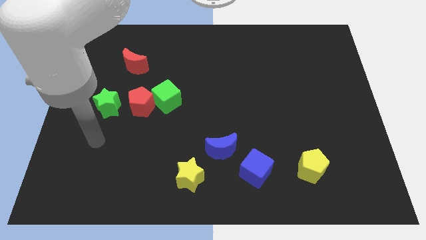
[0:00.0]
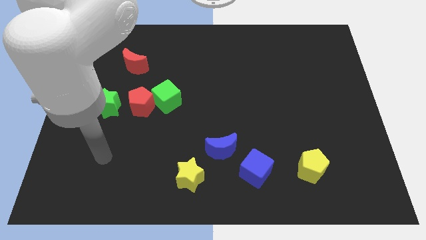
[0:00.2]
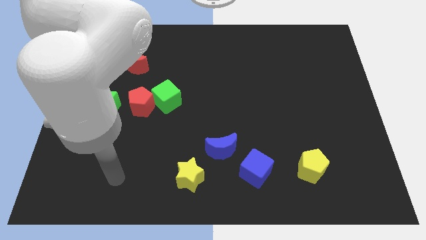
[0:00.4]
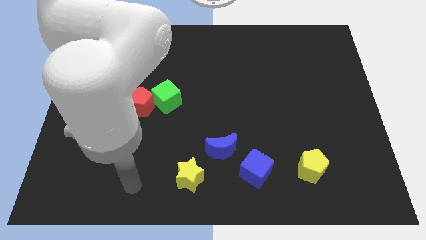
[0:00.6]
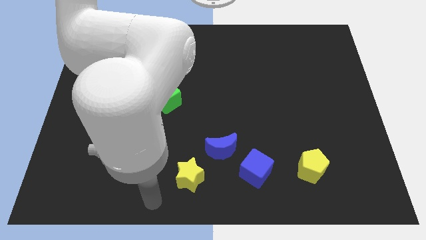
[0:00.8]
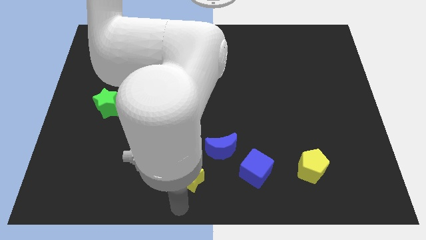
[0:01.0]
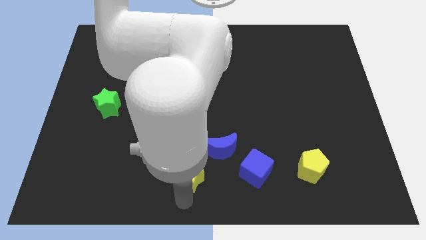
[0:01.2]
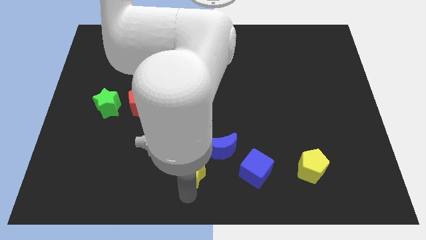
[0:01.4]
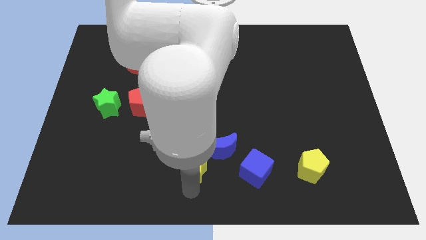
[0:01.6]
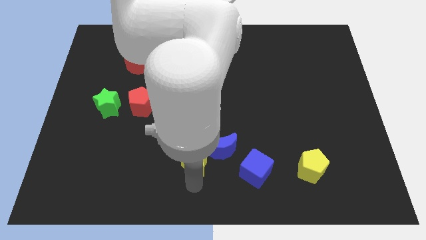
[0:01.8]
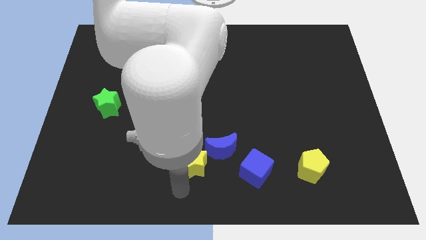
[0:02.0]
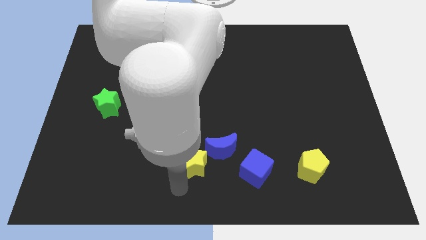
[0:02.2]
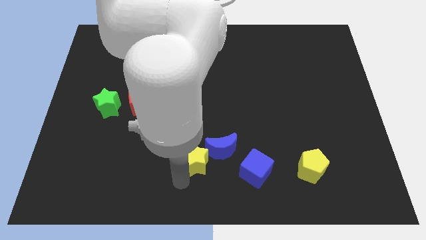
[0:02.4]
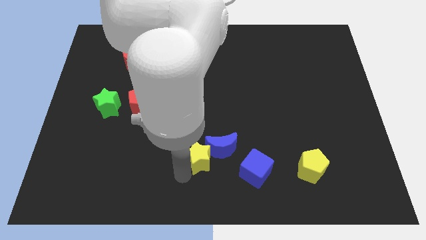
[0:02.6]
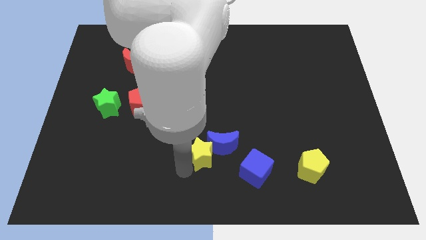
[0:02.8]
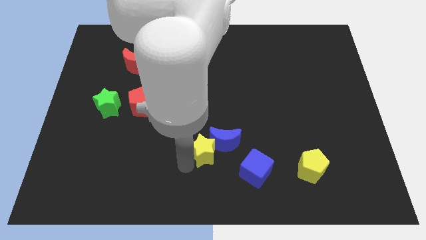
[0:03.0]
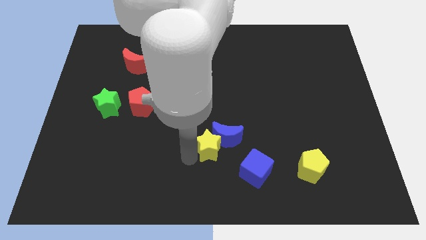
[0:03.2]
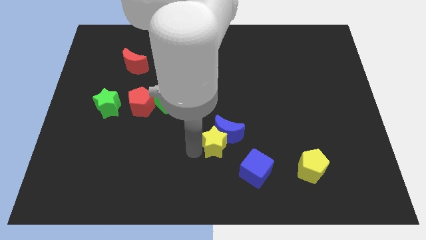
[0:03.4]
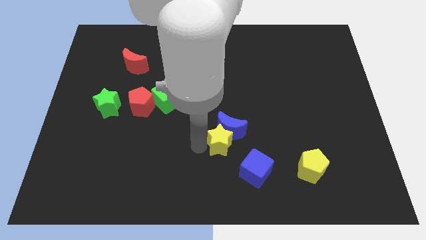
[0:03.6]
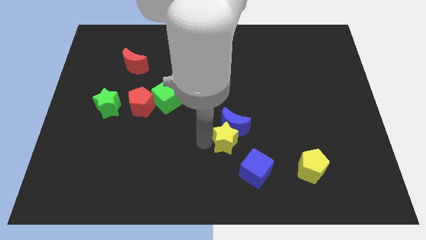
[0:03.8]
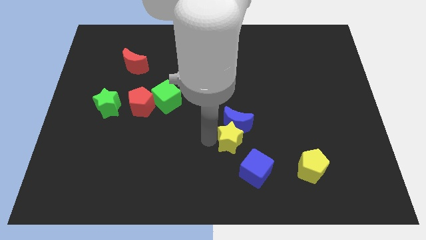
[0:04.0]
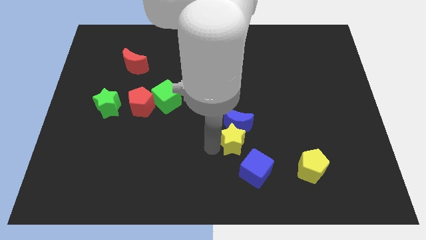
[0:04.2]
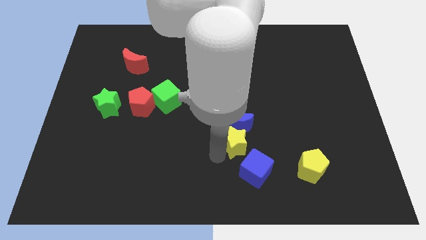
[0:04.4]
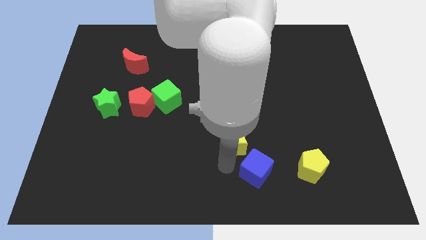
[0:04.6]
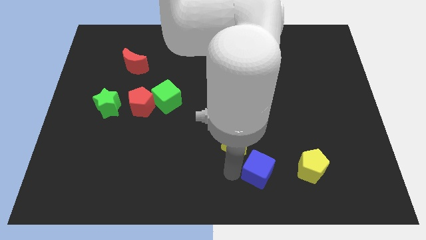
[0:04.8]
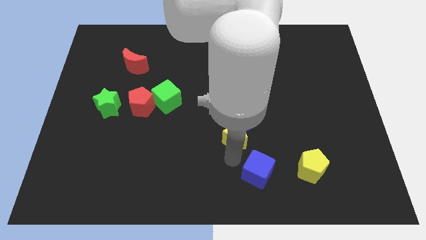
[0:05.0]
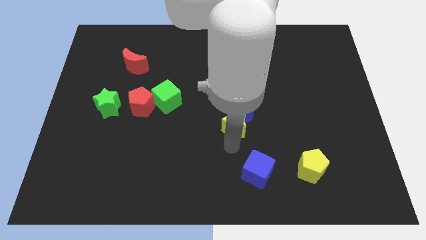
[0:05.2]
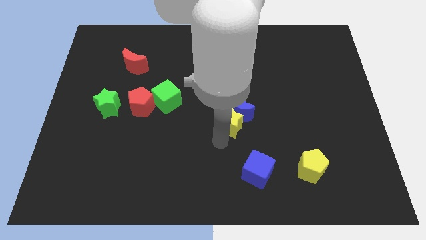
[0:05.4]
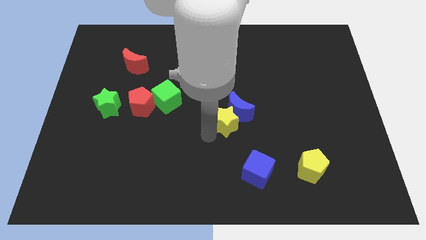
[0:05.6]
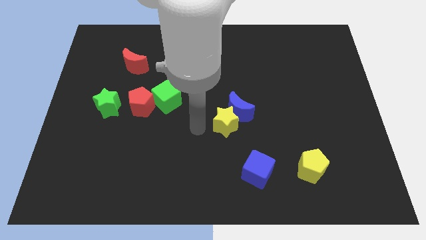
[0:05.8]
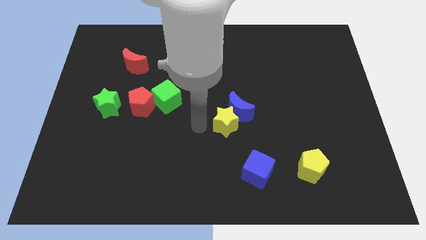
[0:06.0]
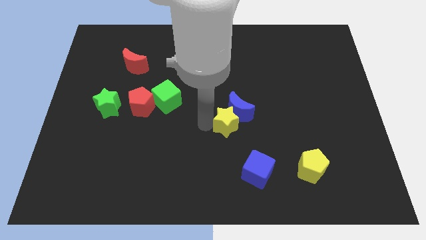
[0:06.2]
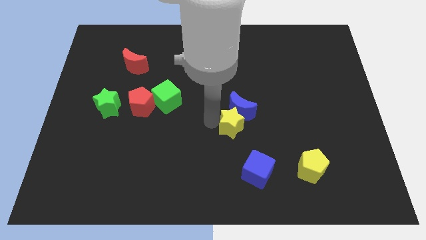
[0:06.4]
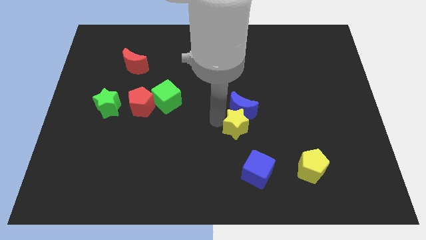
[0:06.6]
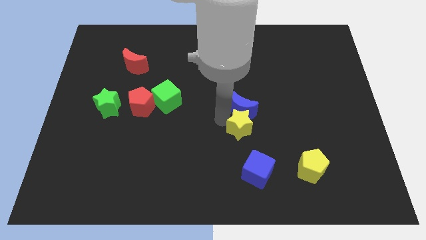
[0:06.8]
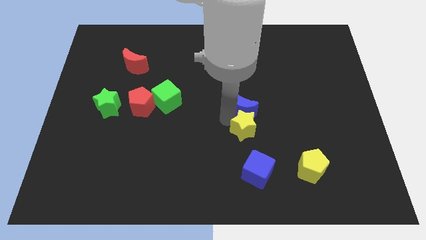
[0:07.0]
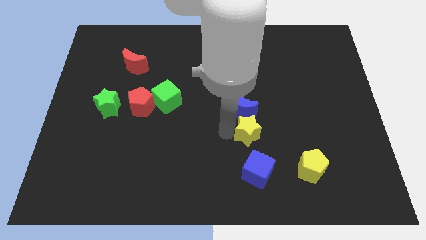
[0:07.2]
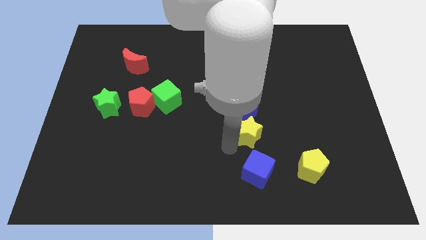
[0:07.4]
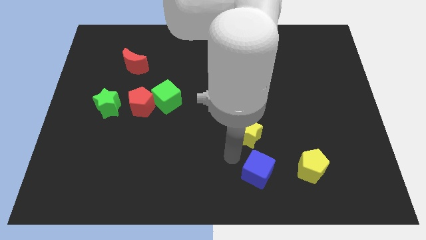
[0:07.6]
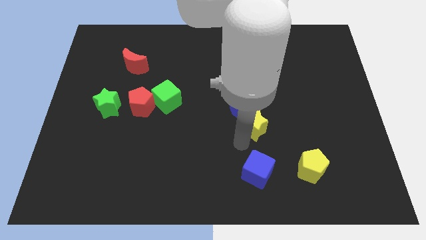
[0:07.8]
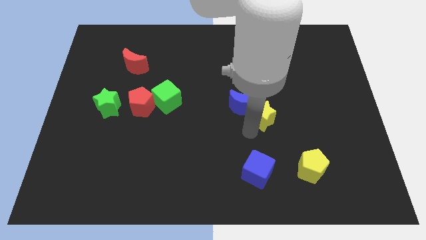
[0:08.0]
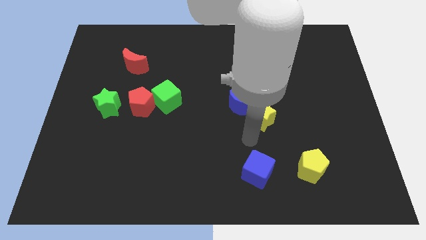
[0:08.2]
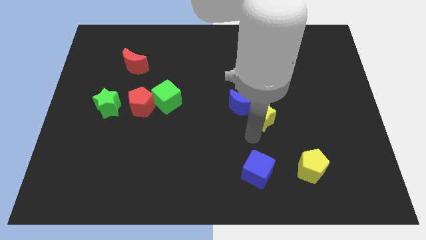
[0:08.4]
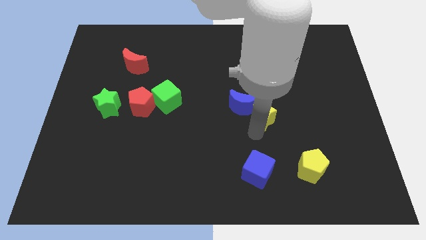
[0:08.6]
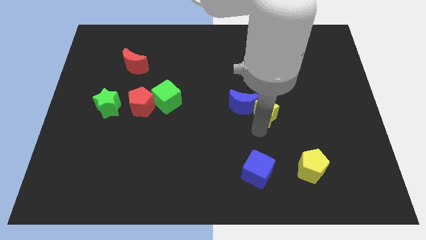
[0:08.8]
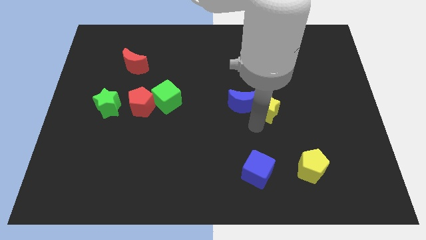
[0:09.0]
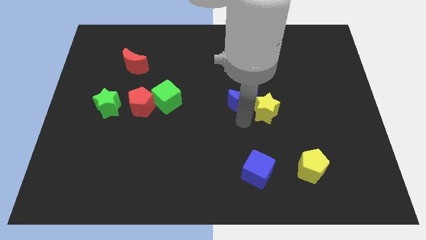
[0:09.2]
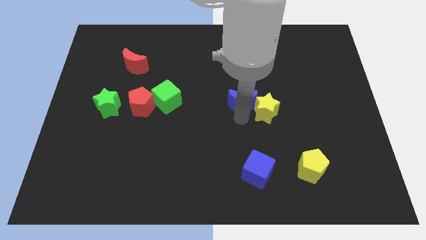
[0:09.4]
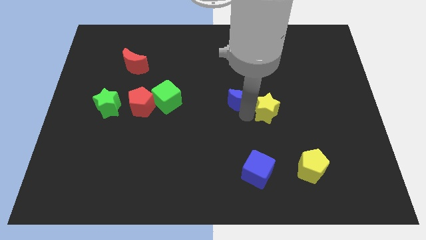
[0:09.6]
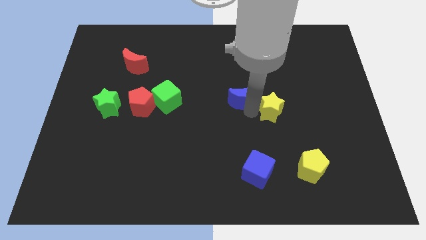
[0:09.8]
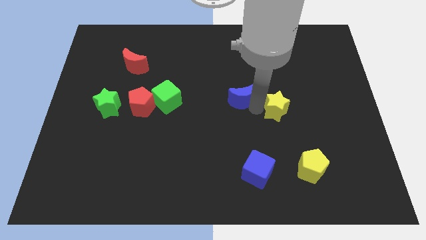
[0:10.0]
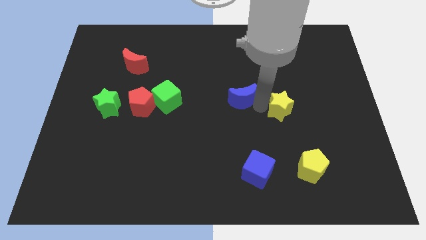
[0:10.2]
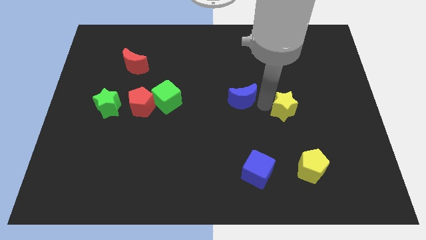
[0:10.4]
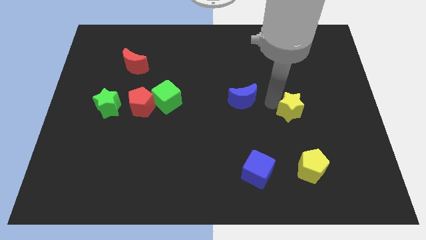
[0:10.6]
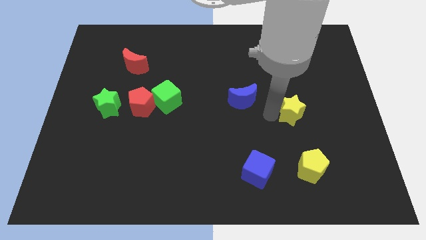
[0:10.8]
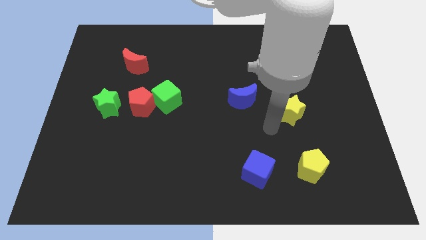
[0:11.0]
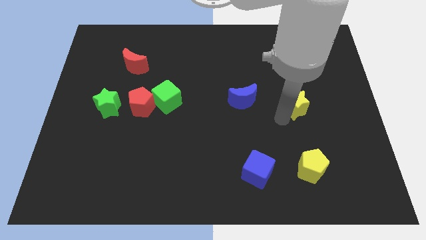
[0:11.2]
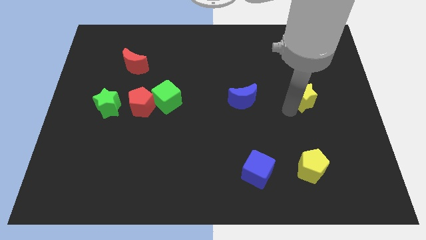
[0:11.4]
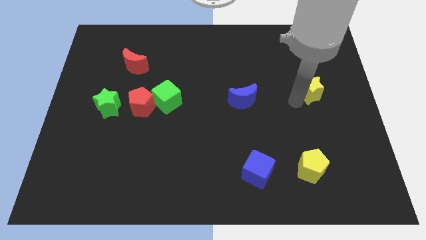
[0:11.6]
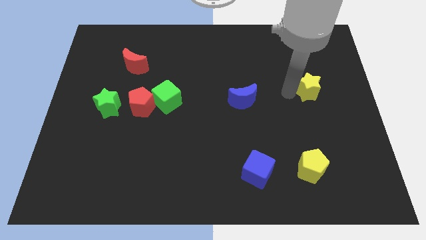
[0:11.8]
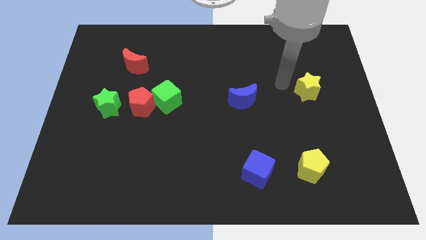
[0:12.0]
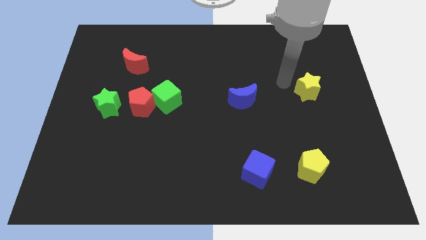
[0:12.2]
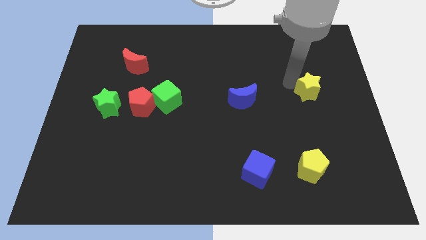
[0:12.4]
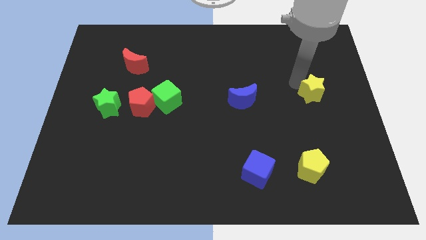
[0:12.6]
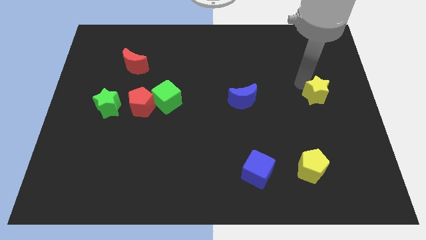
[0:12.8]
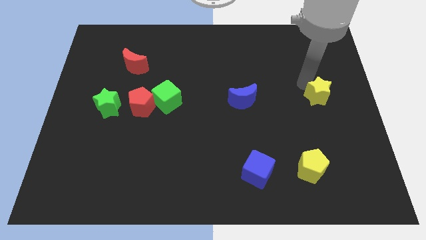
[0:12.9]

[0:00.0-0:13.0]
push the yellow star to the center right
